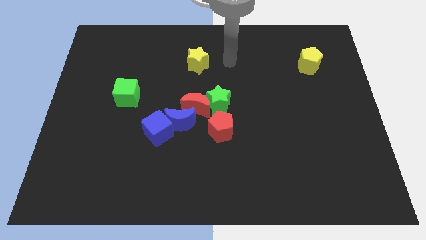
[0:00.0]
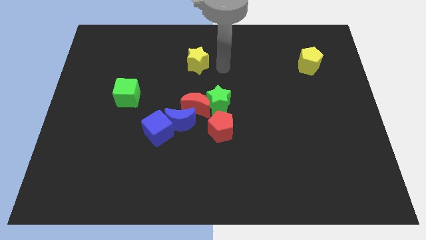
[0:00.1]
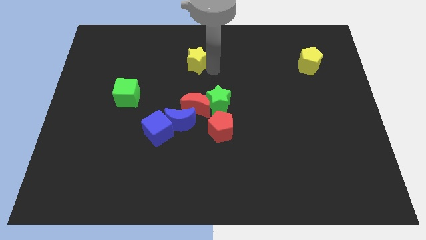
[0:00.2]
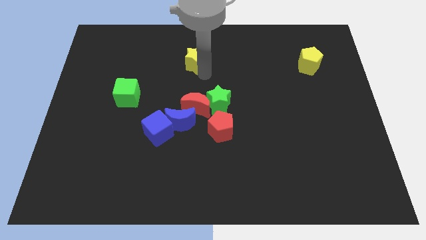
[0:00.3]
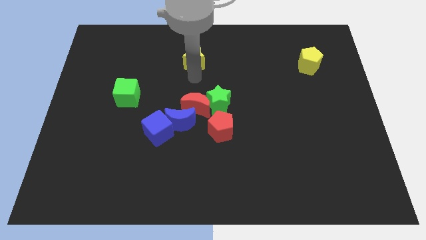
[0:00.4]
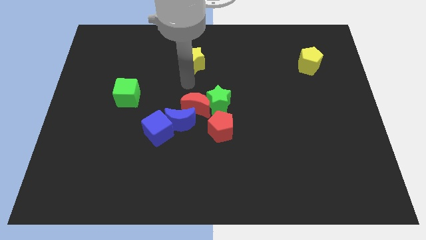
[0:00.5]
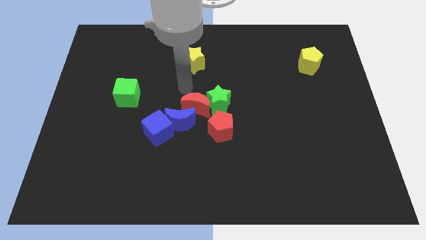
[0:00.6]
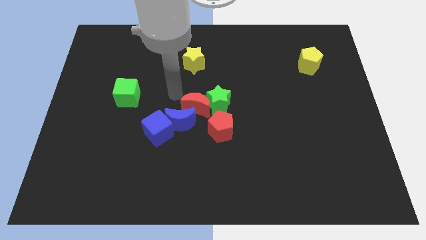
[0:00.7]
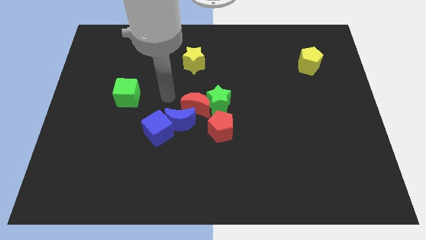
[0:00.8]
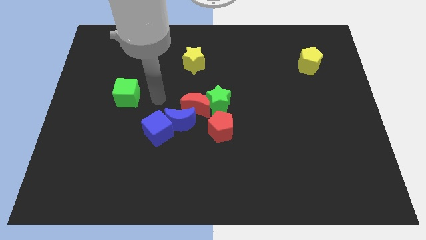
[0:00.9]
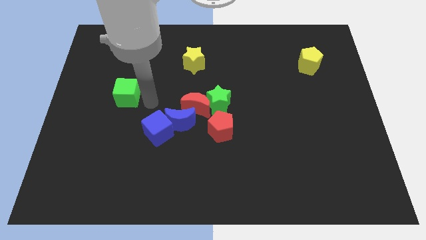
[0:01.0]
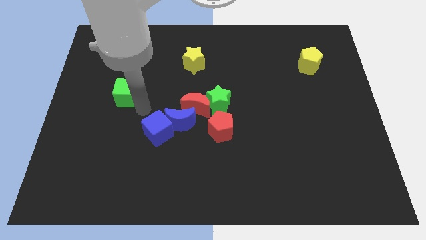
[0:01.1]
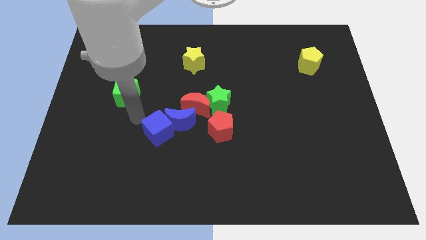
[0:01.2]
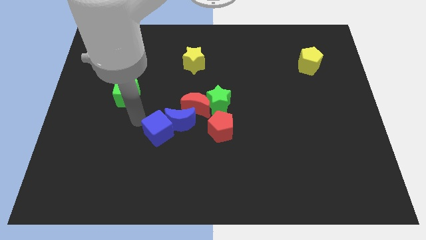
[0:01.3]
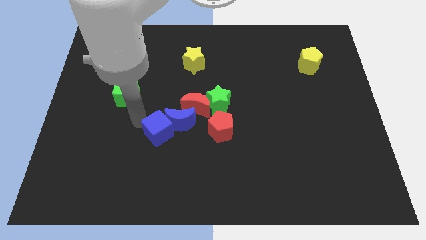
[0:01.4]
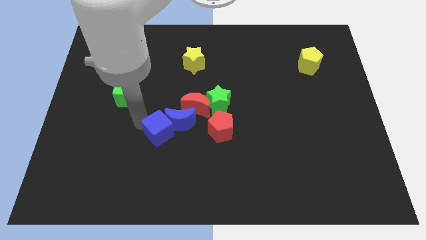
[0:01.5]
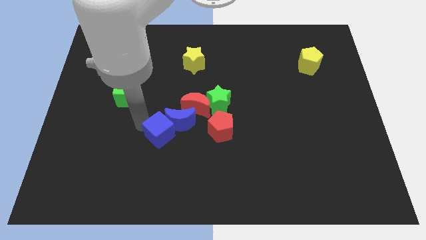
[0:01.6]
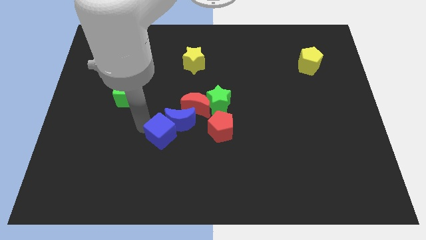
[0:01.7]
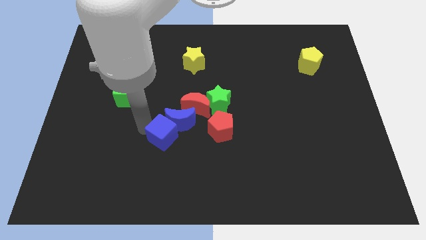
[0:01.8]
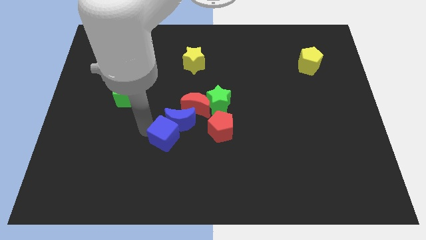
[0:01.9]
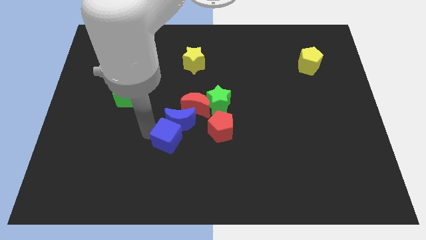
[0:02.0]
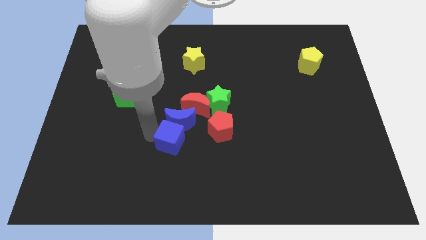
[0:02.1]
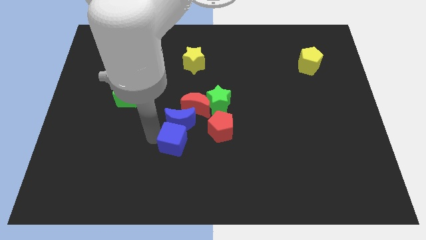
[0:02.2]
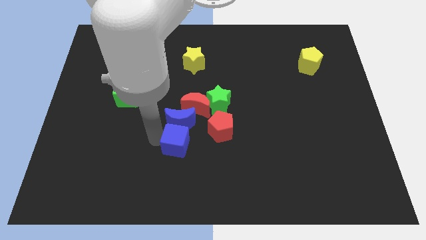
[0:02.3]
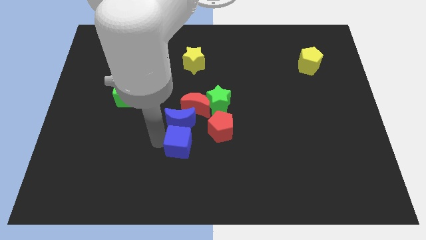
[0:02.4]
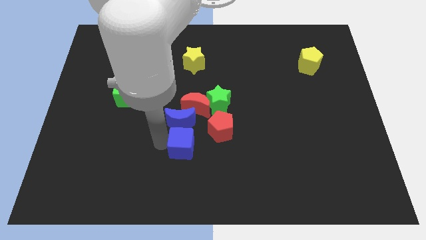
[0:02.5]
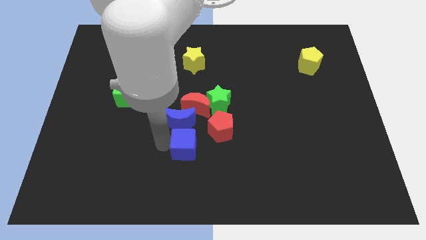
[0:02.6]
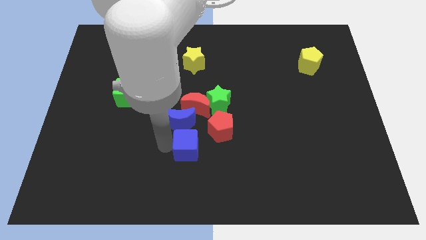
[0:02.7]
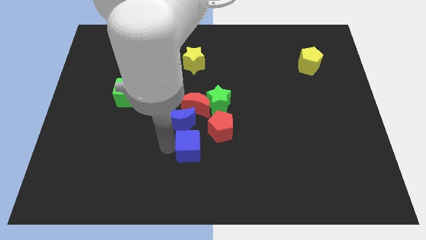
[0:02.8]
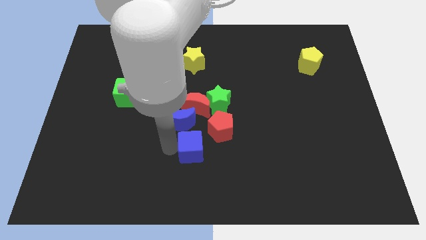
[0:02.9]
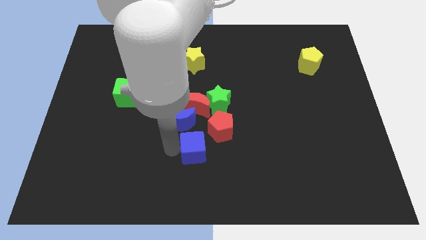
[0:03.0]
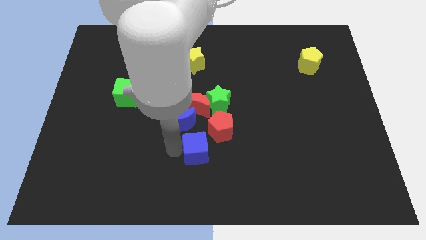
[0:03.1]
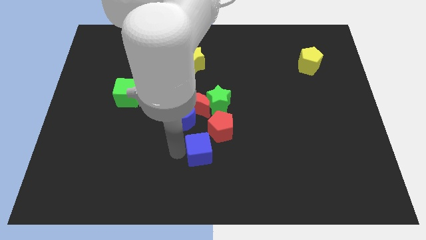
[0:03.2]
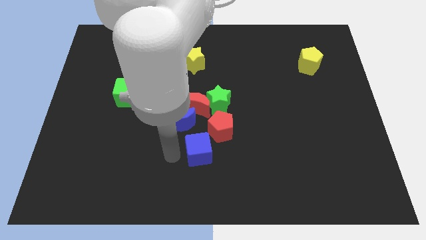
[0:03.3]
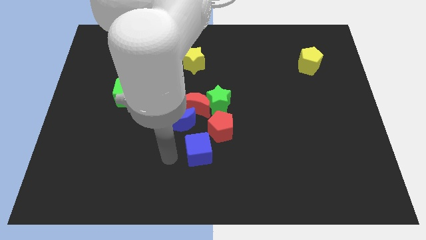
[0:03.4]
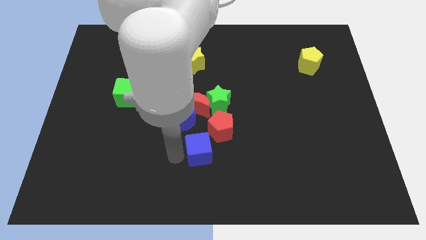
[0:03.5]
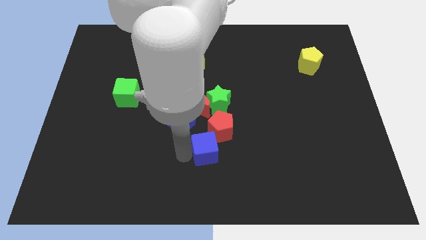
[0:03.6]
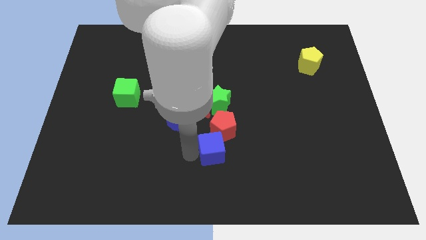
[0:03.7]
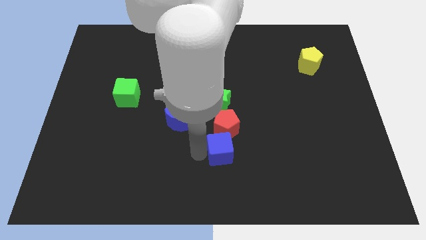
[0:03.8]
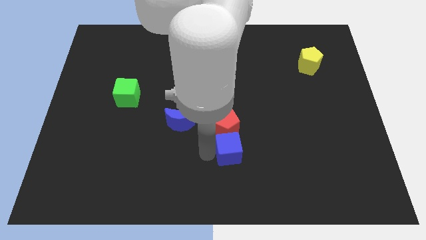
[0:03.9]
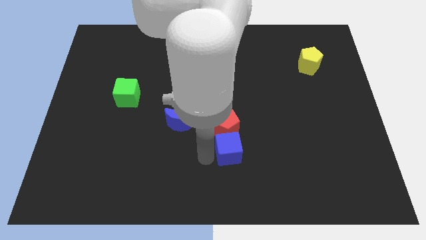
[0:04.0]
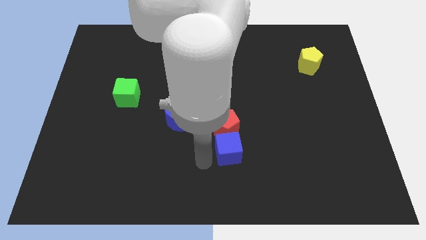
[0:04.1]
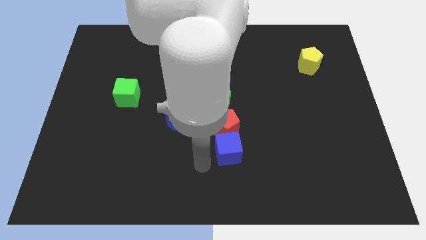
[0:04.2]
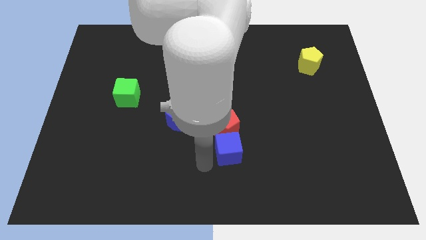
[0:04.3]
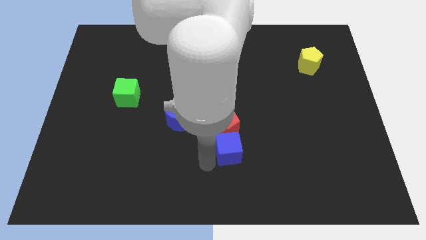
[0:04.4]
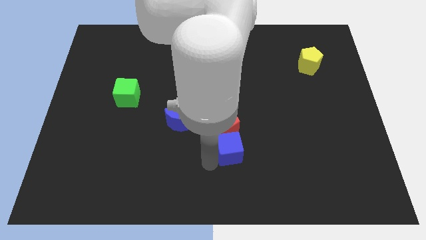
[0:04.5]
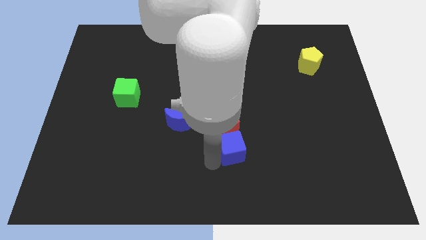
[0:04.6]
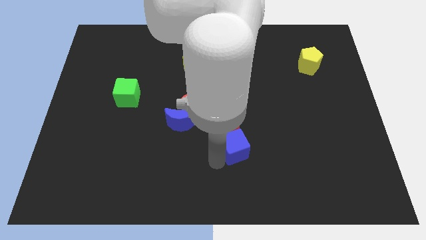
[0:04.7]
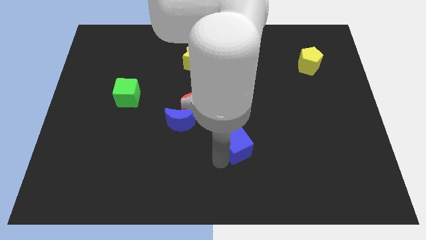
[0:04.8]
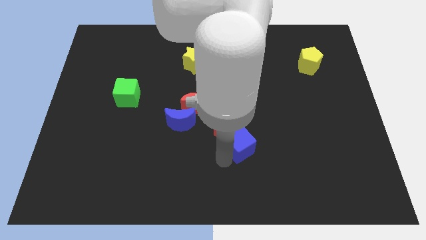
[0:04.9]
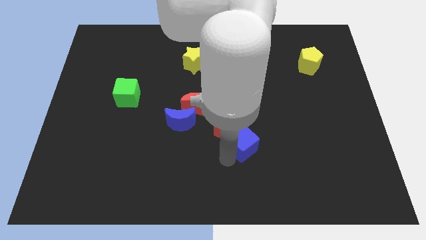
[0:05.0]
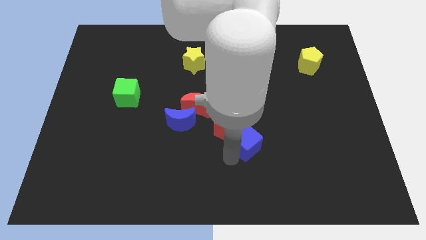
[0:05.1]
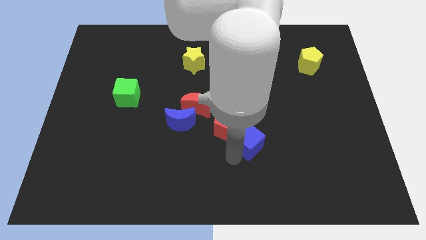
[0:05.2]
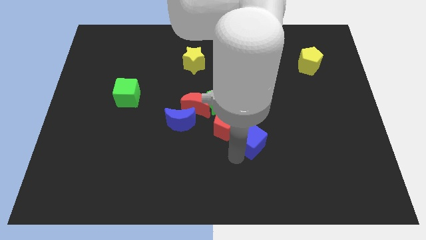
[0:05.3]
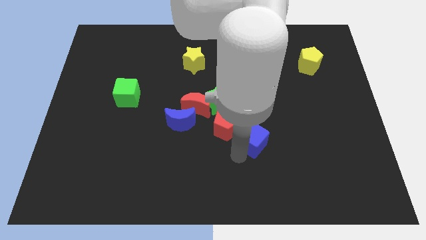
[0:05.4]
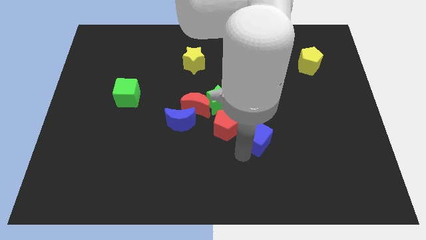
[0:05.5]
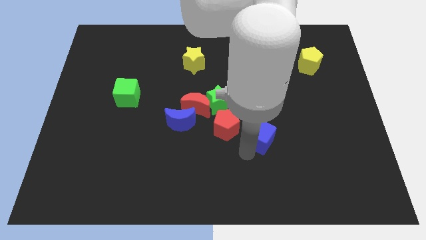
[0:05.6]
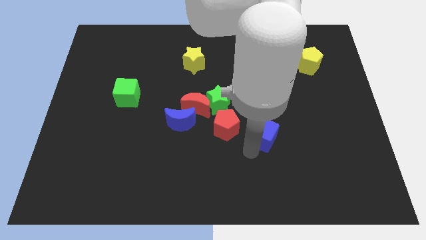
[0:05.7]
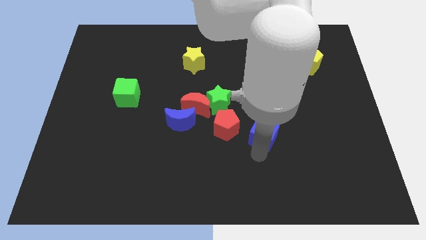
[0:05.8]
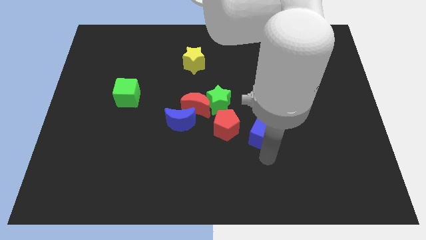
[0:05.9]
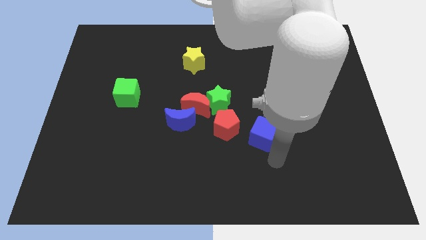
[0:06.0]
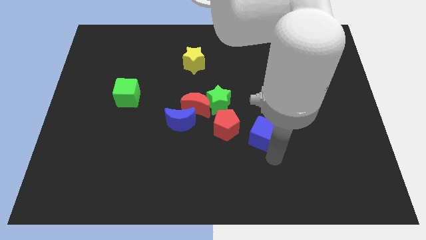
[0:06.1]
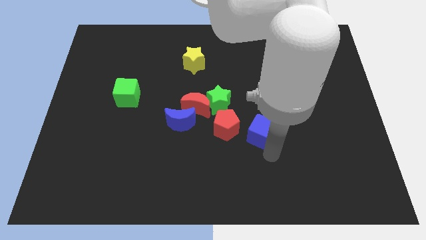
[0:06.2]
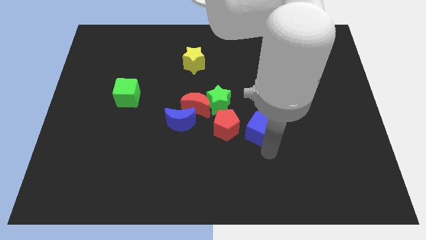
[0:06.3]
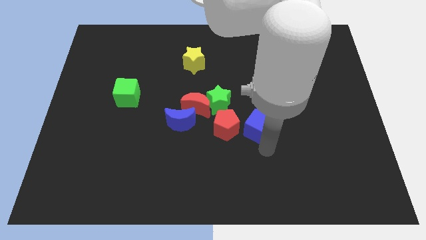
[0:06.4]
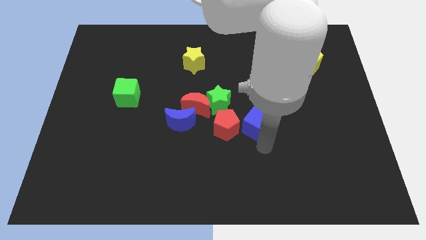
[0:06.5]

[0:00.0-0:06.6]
push the blue cube to the top right side of the red pentagon

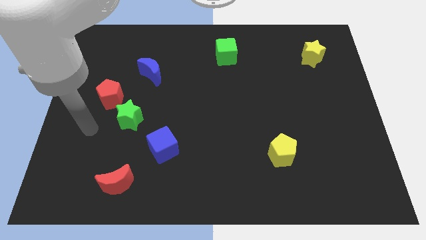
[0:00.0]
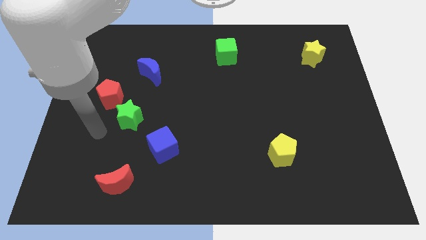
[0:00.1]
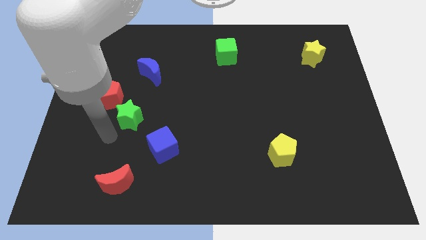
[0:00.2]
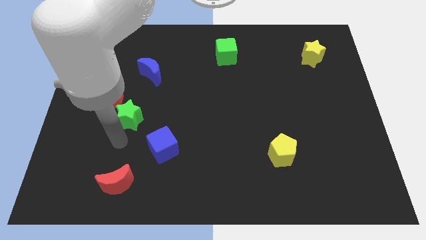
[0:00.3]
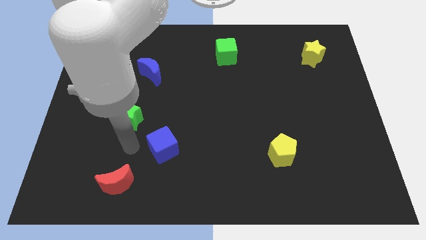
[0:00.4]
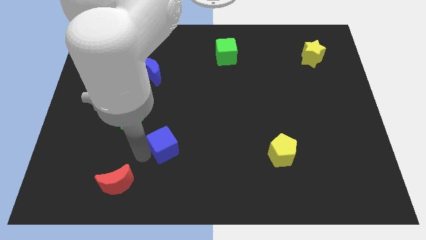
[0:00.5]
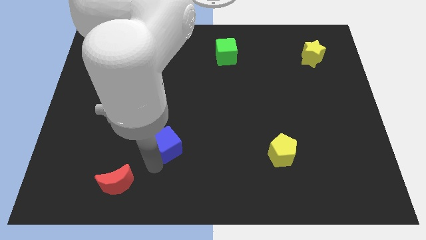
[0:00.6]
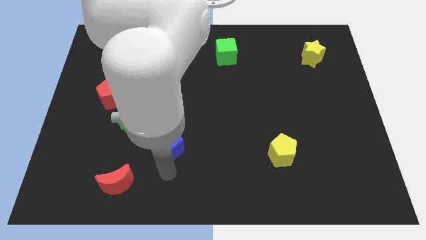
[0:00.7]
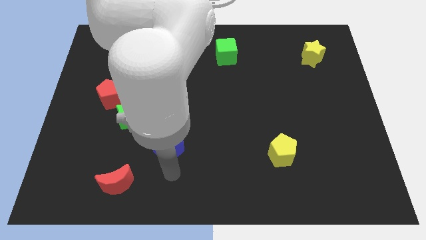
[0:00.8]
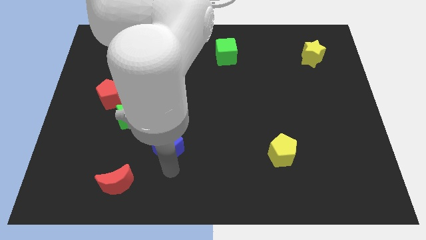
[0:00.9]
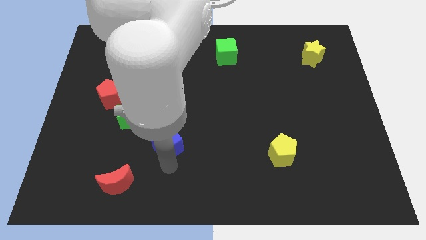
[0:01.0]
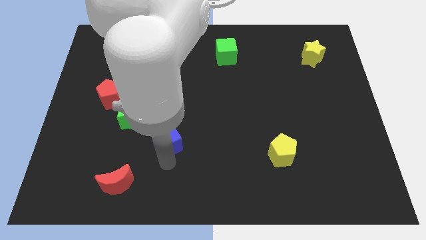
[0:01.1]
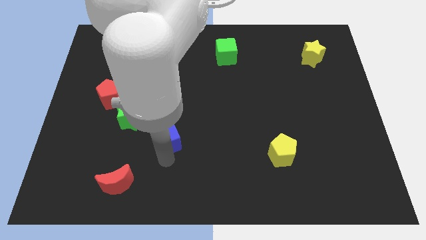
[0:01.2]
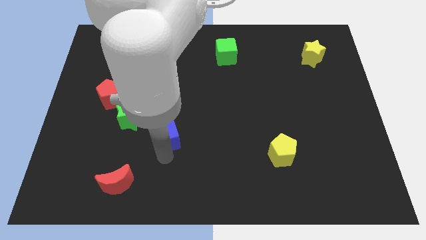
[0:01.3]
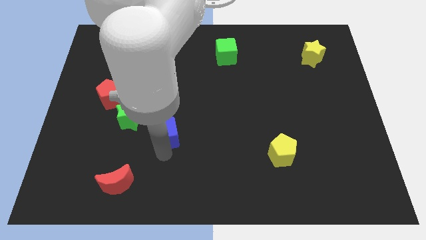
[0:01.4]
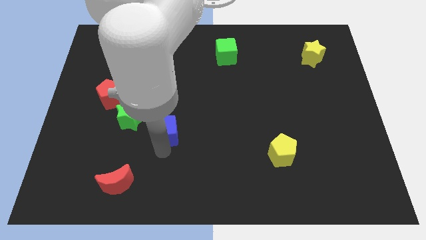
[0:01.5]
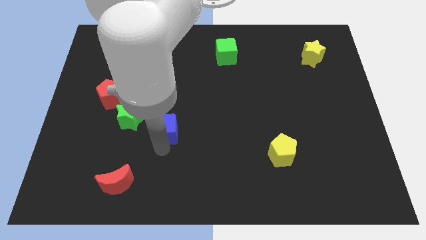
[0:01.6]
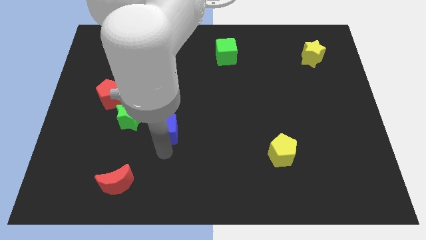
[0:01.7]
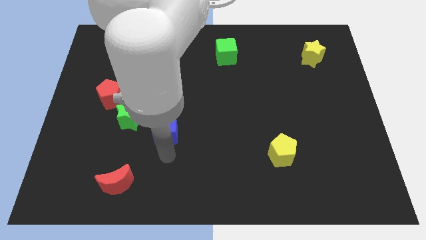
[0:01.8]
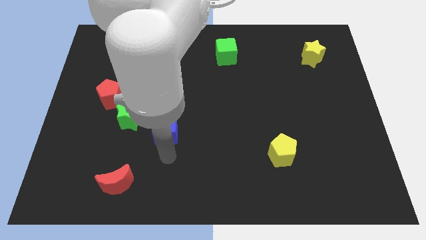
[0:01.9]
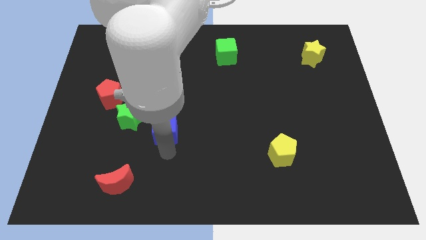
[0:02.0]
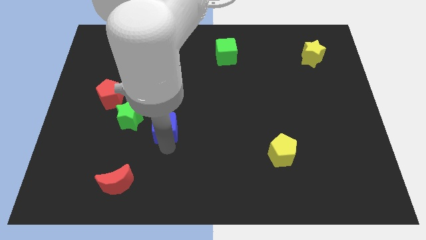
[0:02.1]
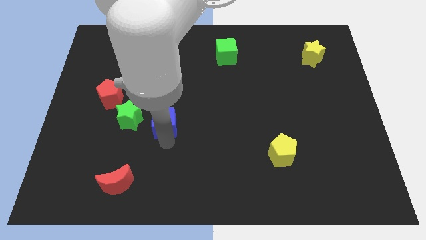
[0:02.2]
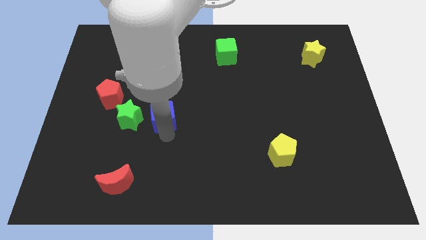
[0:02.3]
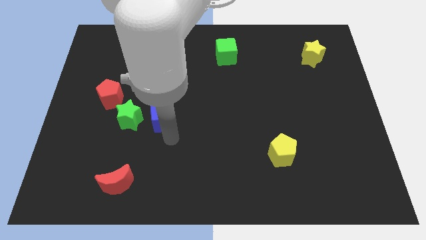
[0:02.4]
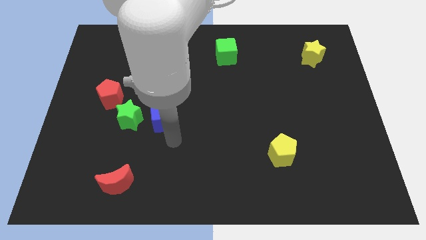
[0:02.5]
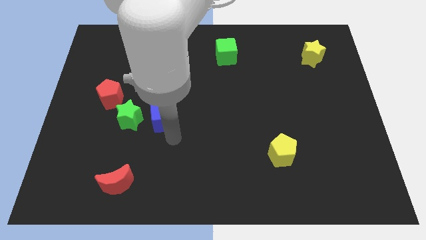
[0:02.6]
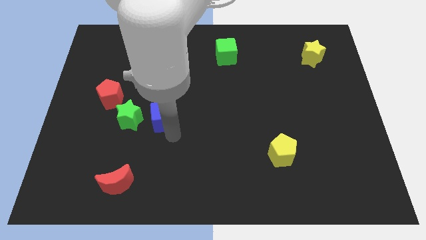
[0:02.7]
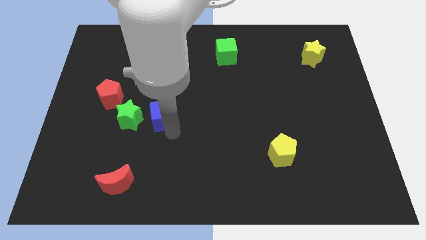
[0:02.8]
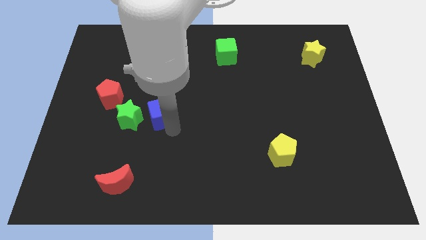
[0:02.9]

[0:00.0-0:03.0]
push the blue cube to the top right side of the green star
